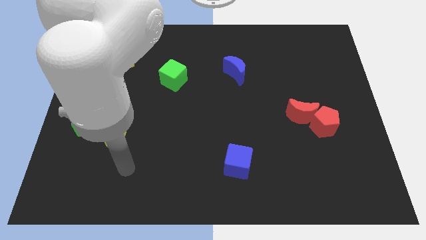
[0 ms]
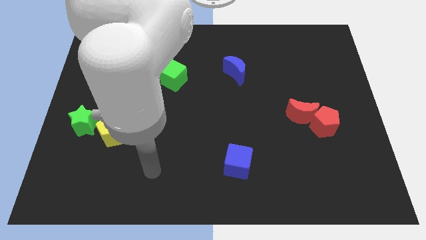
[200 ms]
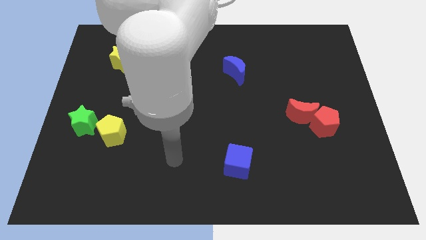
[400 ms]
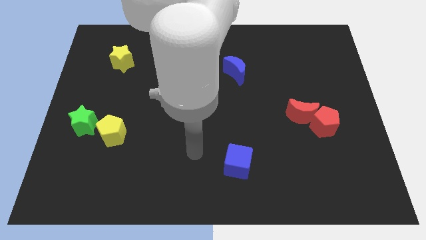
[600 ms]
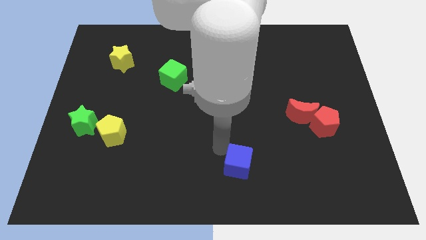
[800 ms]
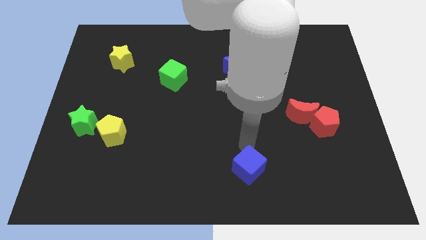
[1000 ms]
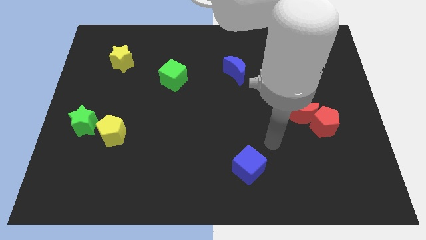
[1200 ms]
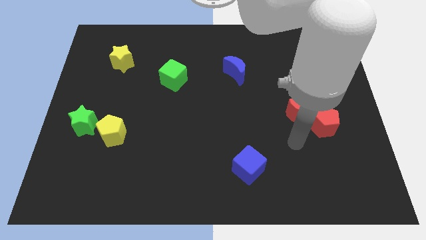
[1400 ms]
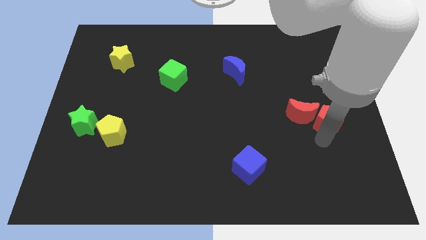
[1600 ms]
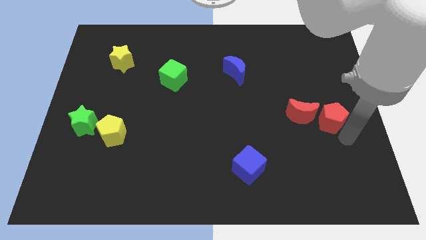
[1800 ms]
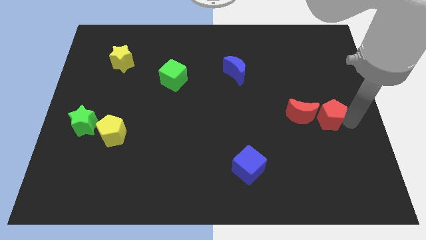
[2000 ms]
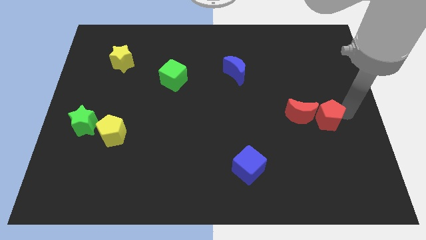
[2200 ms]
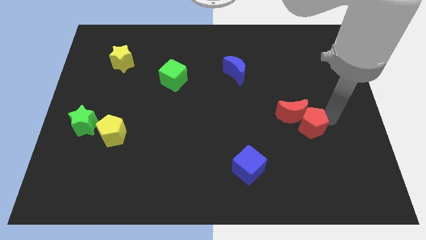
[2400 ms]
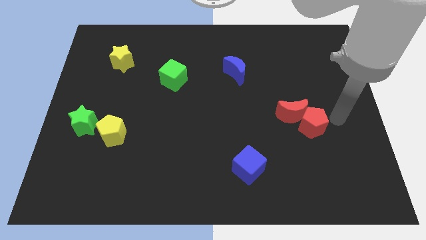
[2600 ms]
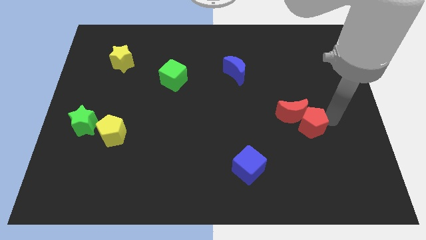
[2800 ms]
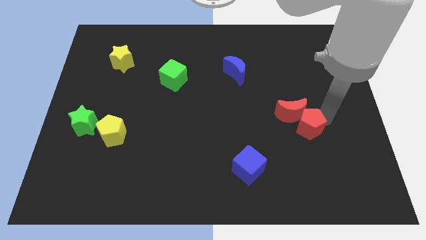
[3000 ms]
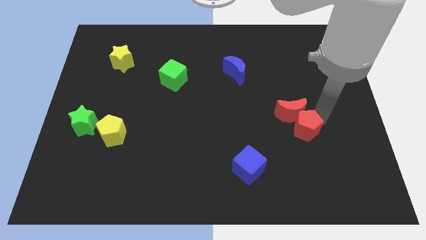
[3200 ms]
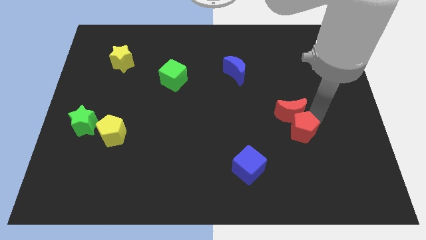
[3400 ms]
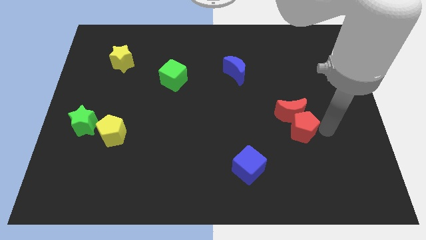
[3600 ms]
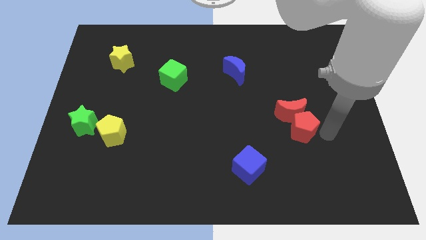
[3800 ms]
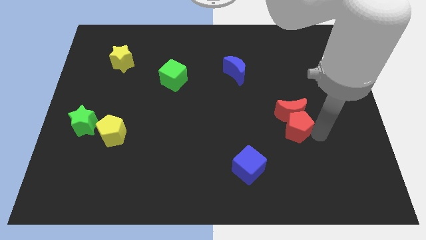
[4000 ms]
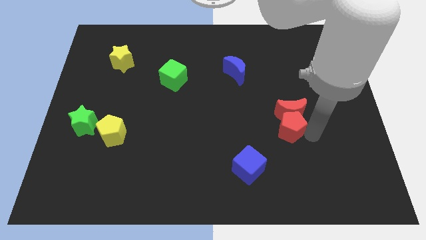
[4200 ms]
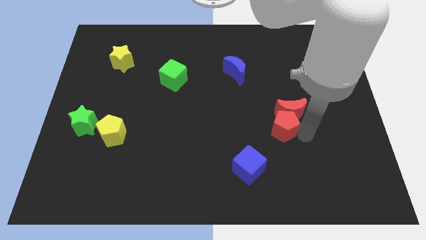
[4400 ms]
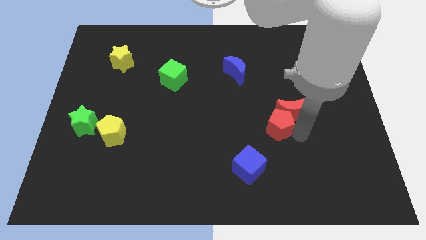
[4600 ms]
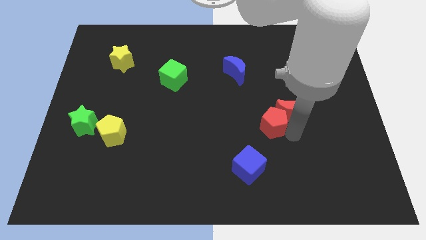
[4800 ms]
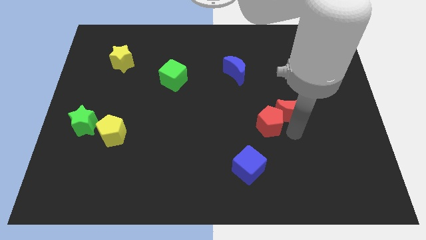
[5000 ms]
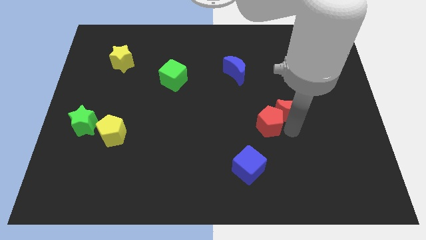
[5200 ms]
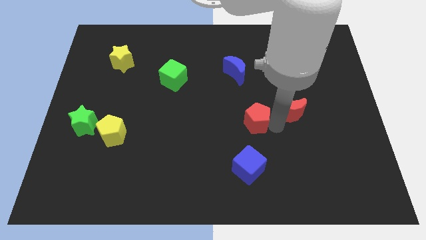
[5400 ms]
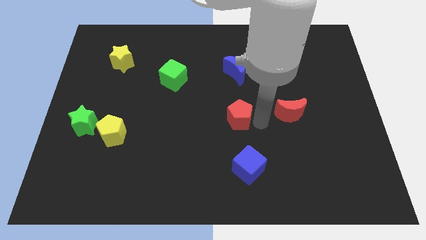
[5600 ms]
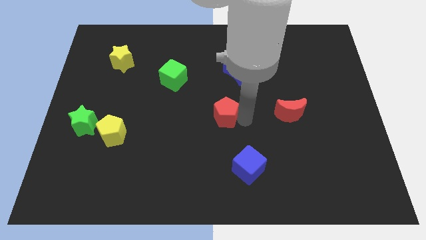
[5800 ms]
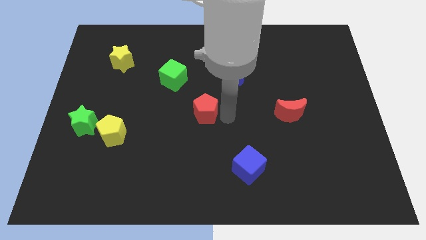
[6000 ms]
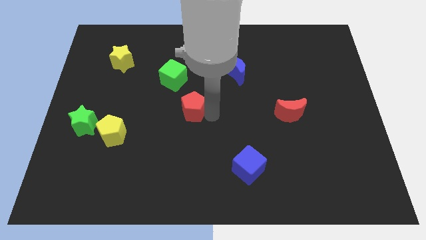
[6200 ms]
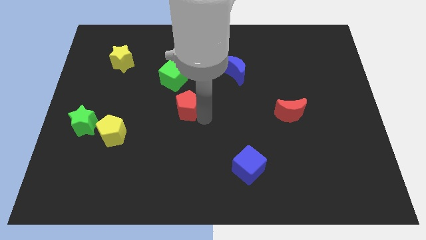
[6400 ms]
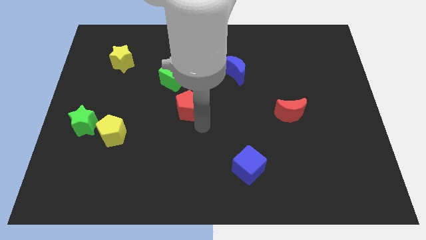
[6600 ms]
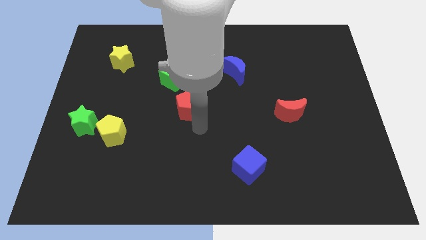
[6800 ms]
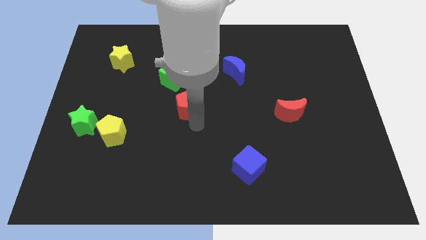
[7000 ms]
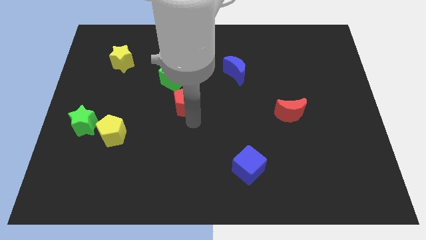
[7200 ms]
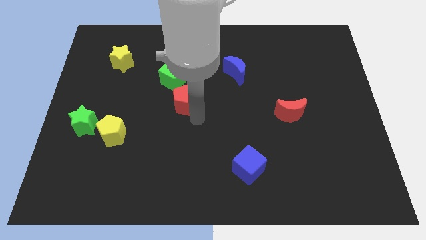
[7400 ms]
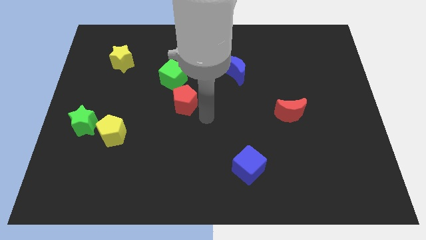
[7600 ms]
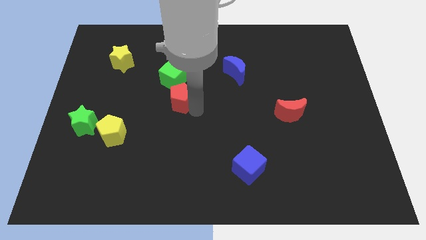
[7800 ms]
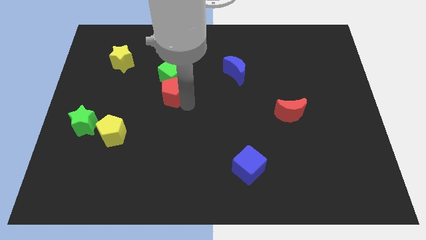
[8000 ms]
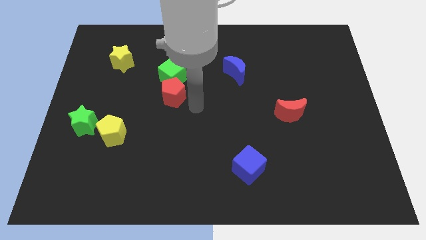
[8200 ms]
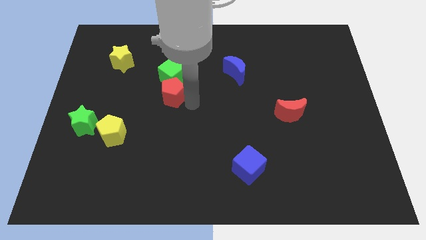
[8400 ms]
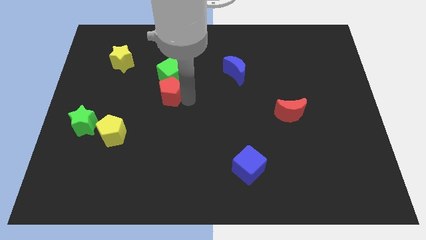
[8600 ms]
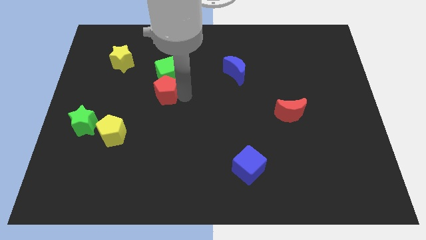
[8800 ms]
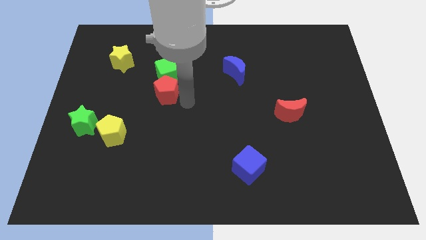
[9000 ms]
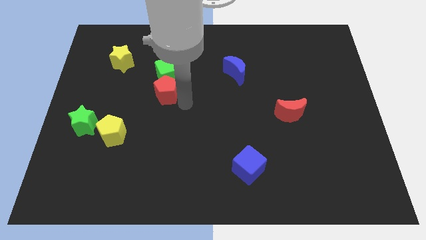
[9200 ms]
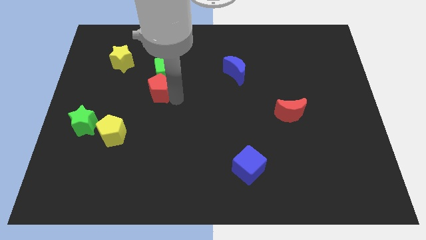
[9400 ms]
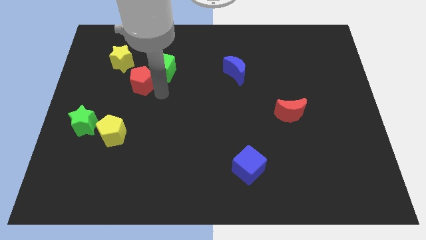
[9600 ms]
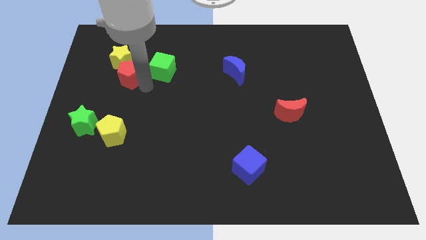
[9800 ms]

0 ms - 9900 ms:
put the red pentagon to the yellow star

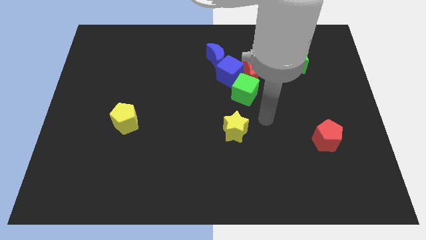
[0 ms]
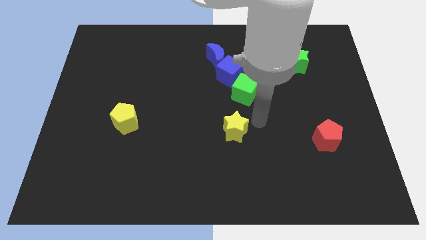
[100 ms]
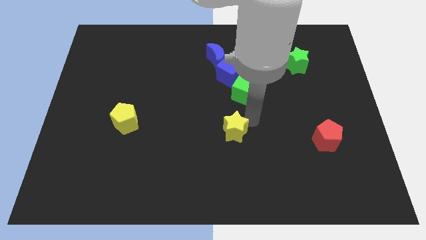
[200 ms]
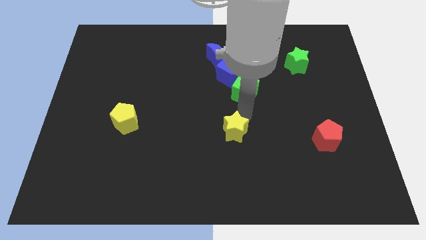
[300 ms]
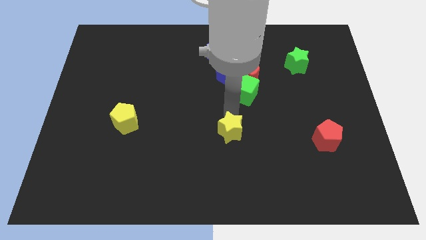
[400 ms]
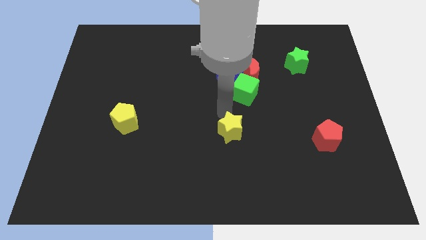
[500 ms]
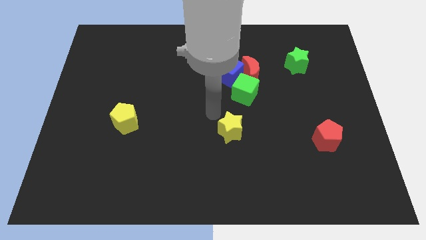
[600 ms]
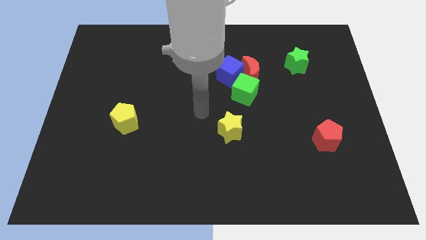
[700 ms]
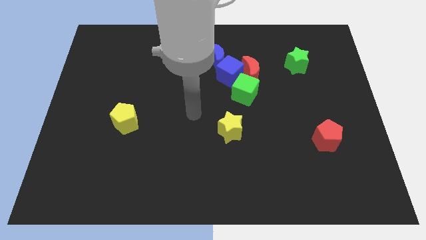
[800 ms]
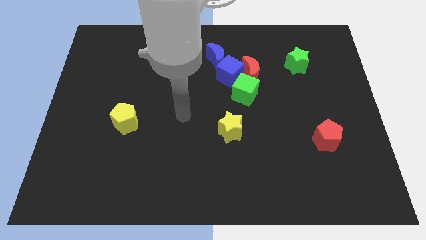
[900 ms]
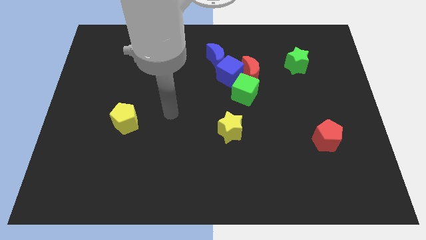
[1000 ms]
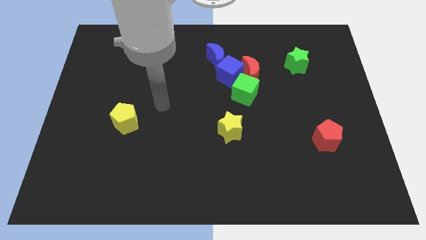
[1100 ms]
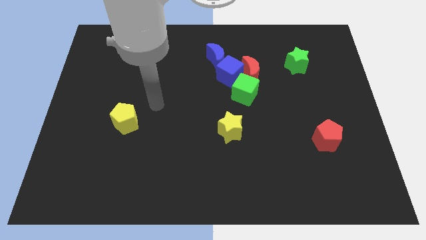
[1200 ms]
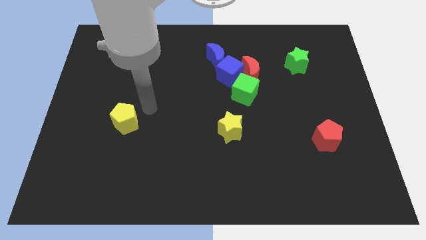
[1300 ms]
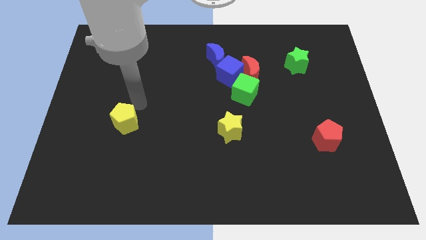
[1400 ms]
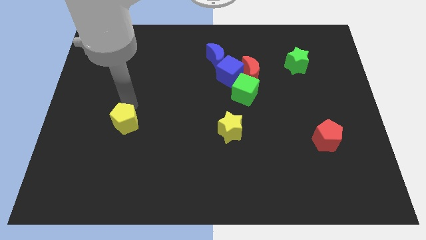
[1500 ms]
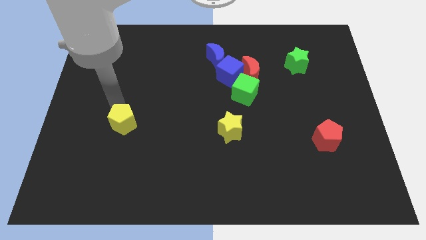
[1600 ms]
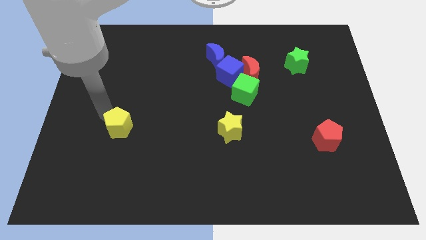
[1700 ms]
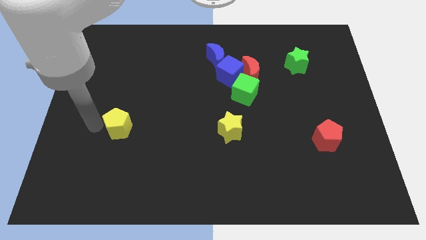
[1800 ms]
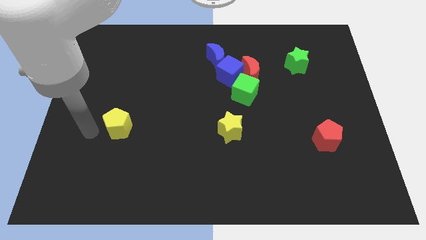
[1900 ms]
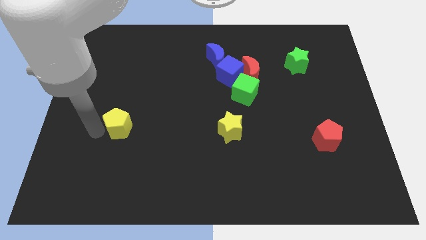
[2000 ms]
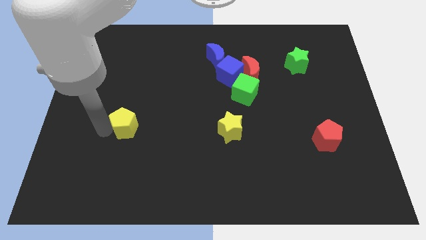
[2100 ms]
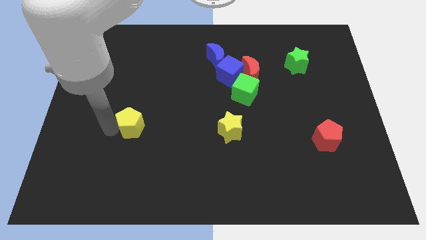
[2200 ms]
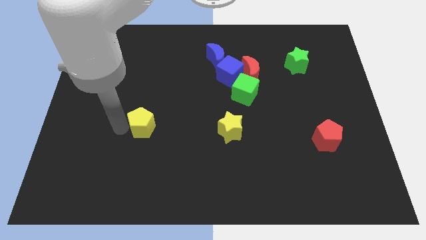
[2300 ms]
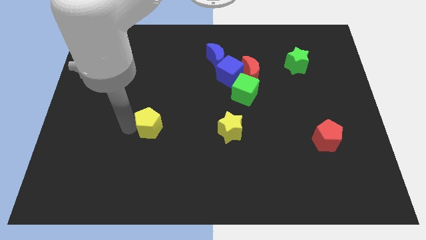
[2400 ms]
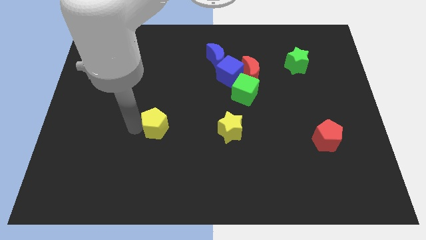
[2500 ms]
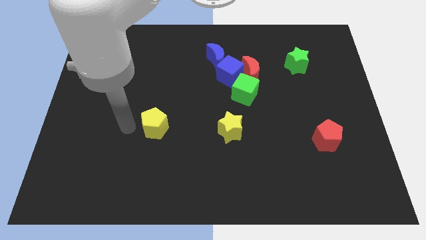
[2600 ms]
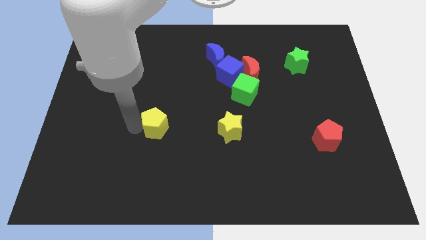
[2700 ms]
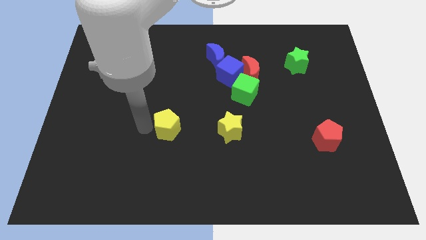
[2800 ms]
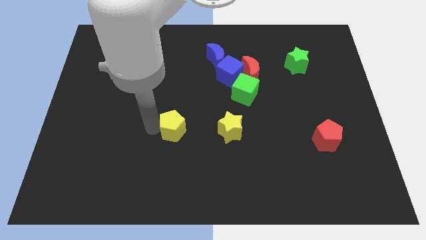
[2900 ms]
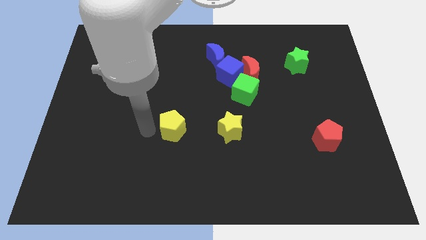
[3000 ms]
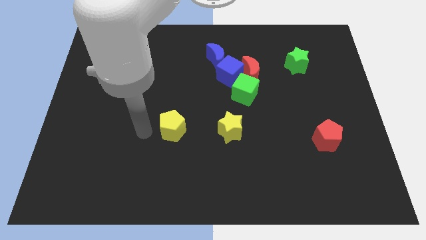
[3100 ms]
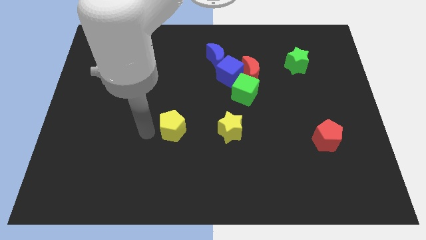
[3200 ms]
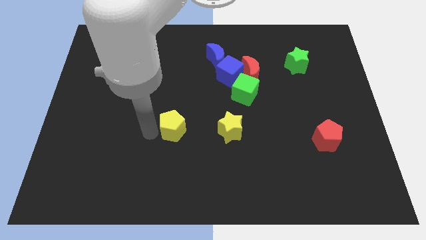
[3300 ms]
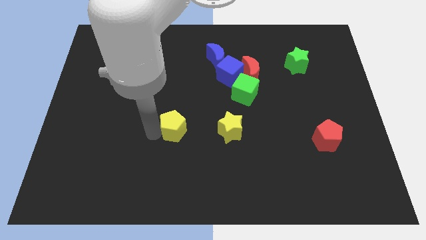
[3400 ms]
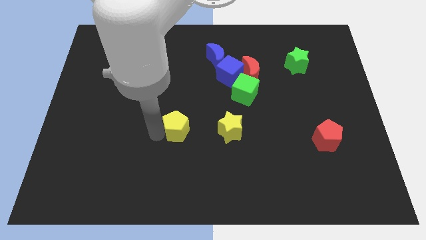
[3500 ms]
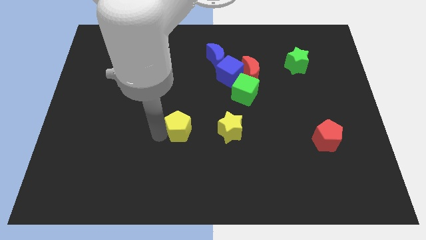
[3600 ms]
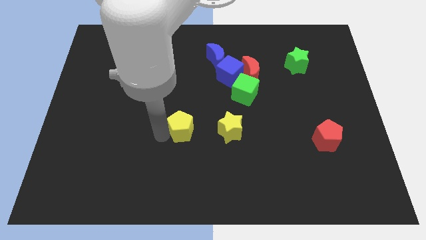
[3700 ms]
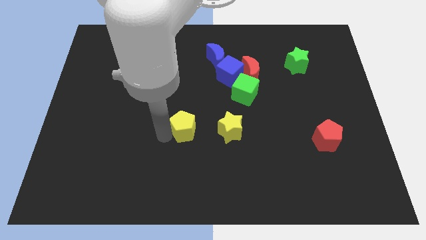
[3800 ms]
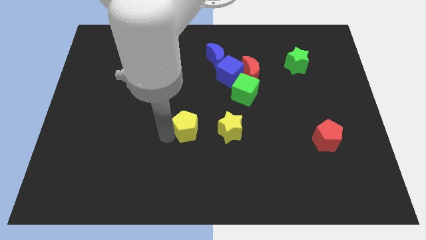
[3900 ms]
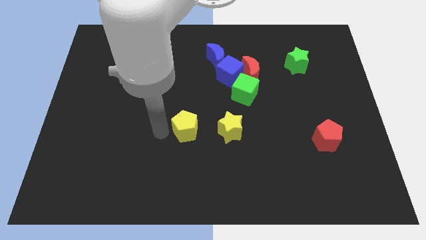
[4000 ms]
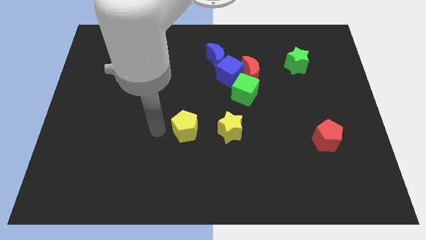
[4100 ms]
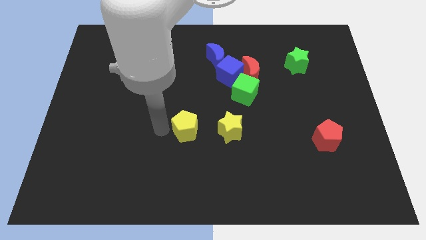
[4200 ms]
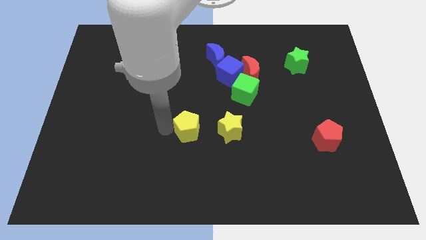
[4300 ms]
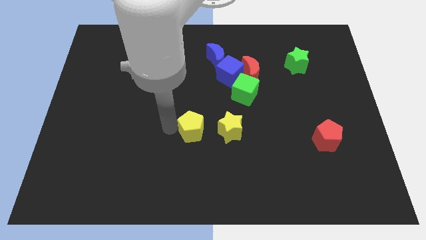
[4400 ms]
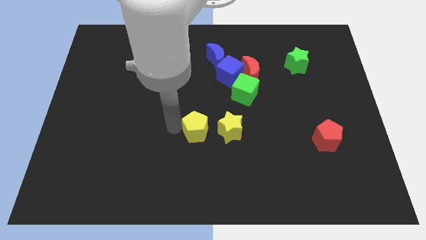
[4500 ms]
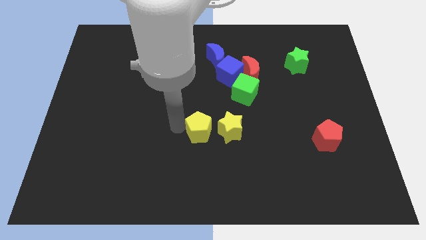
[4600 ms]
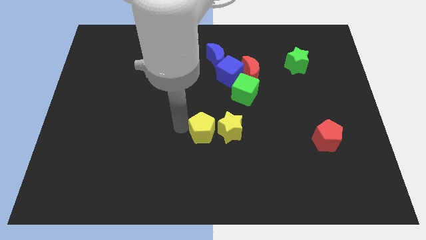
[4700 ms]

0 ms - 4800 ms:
push the yellow pentagon to the yellow star
